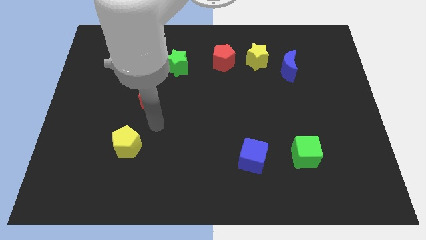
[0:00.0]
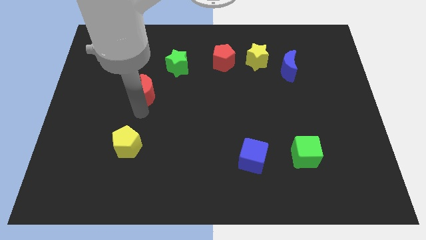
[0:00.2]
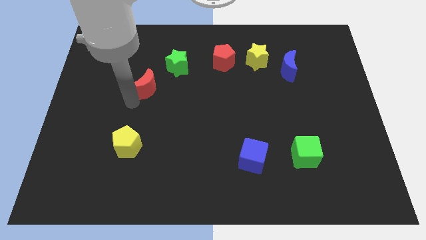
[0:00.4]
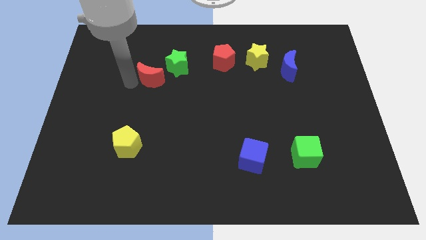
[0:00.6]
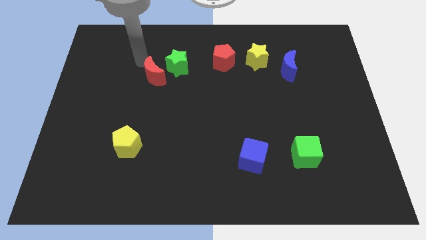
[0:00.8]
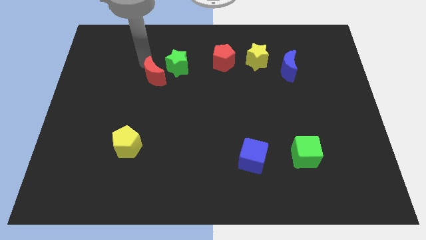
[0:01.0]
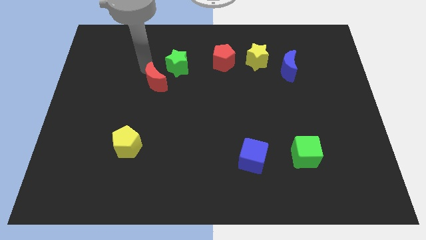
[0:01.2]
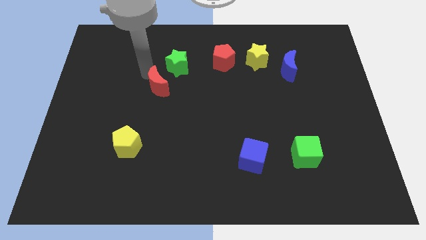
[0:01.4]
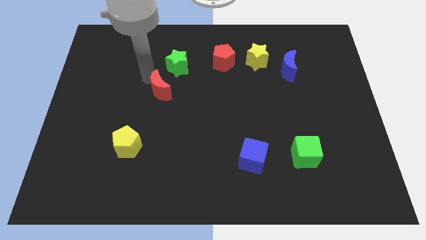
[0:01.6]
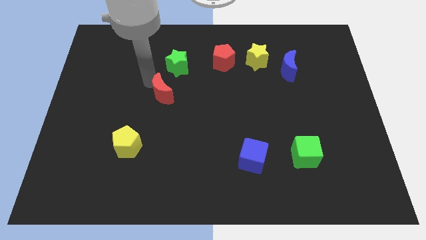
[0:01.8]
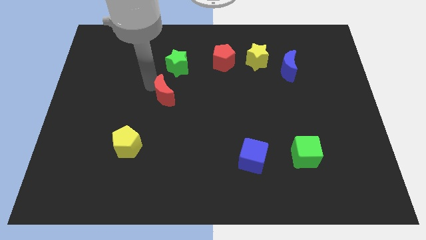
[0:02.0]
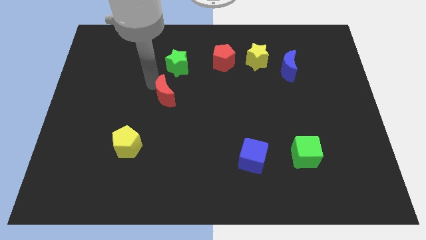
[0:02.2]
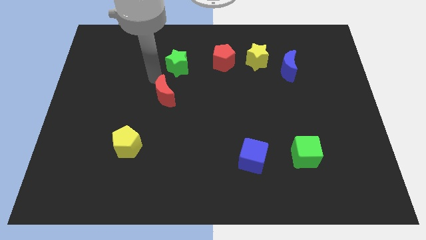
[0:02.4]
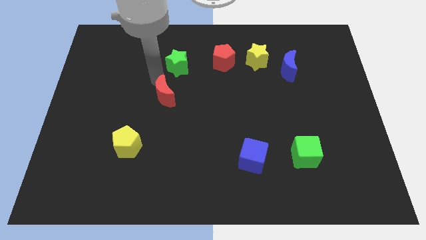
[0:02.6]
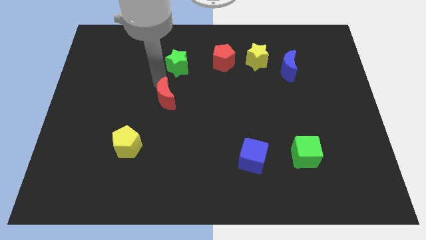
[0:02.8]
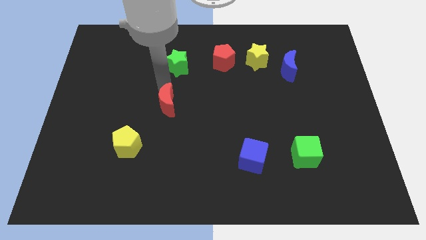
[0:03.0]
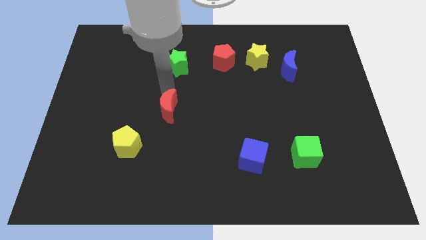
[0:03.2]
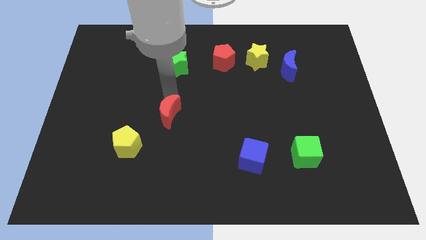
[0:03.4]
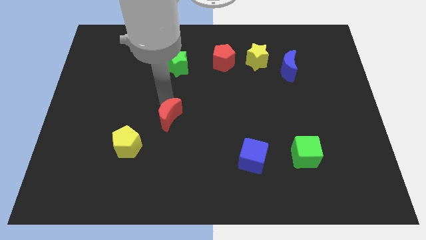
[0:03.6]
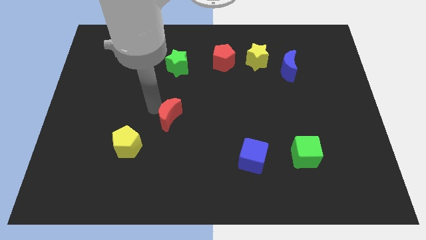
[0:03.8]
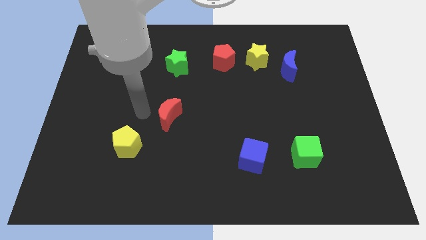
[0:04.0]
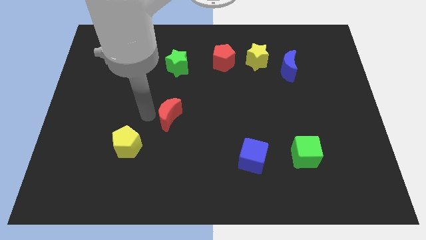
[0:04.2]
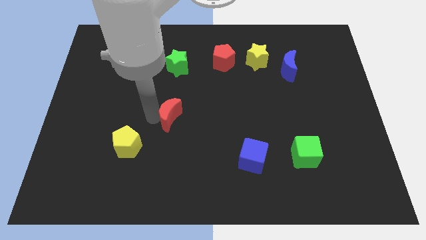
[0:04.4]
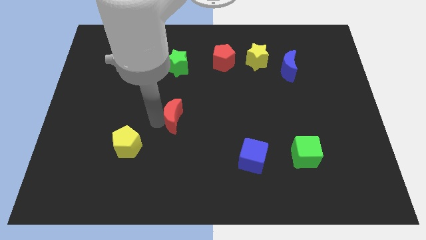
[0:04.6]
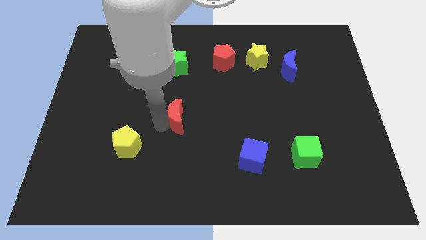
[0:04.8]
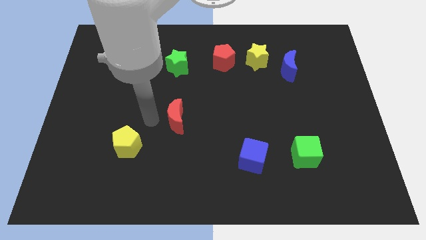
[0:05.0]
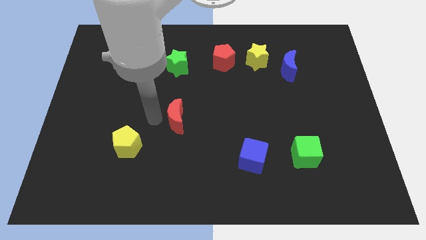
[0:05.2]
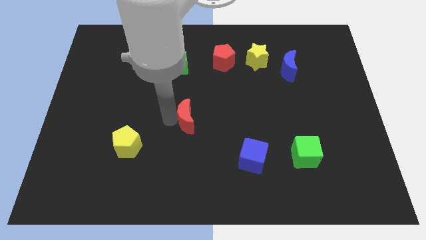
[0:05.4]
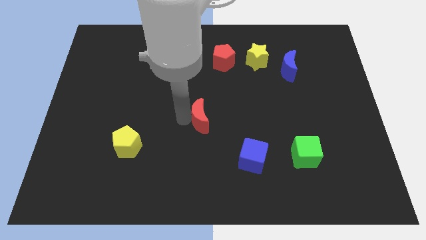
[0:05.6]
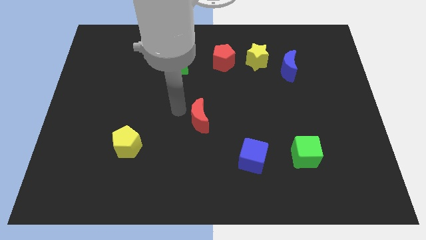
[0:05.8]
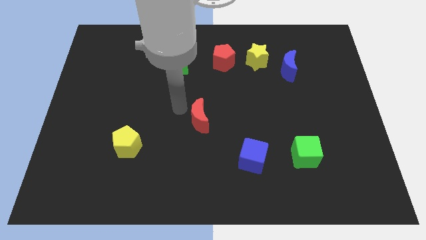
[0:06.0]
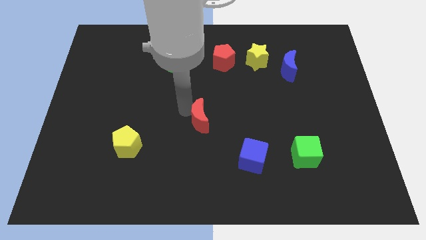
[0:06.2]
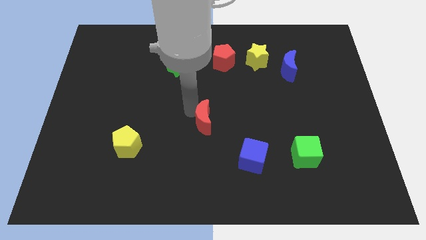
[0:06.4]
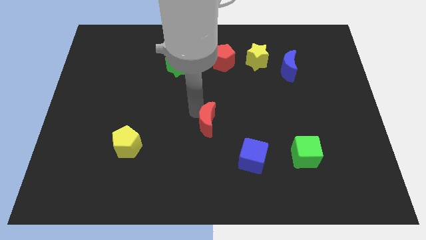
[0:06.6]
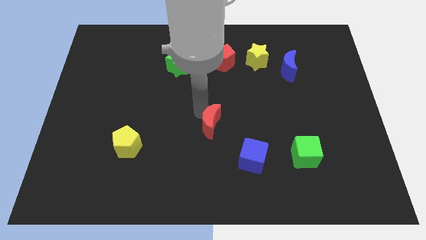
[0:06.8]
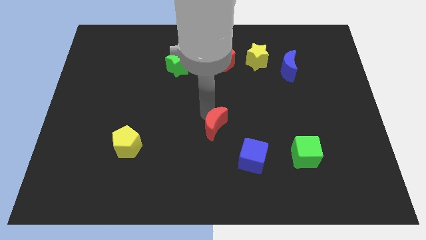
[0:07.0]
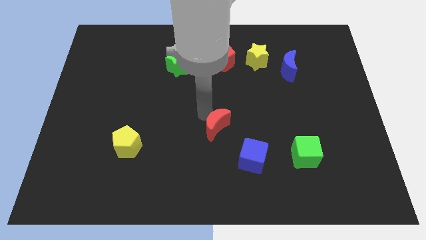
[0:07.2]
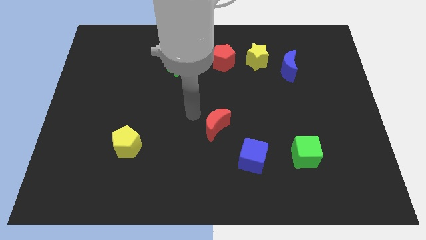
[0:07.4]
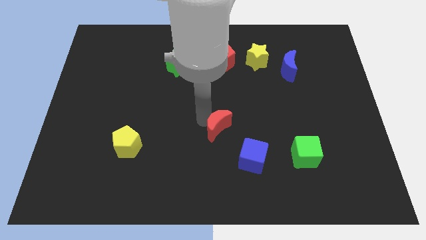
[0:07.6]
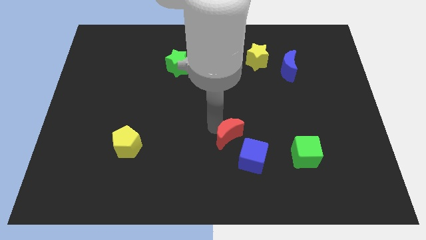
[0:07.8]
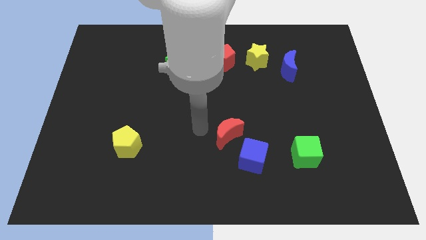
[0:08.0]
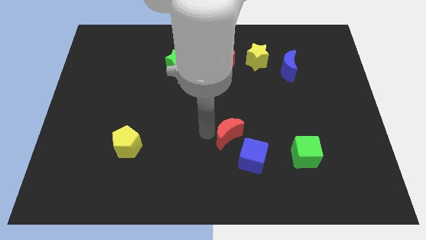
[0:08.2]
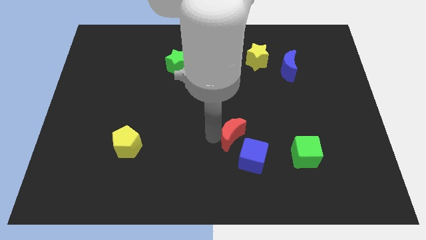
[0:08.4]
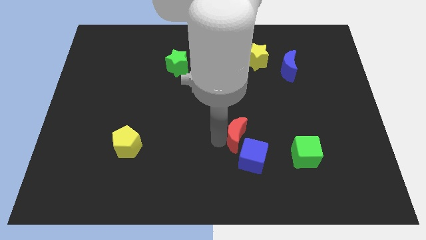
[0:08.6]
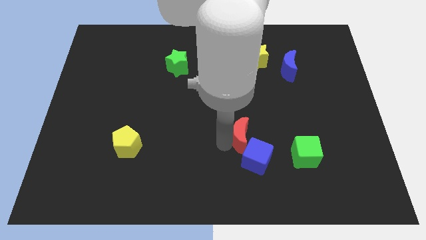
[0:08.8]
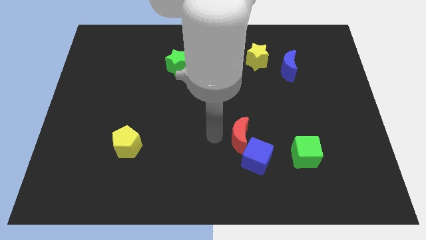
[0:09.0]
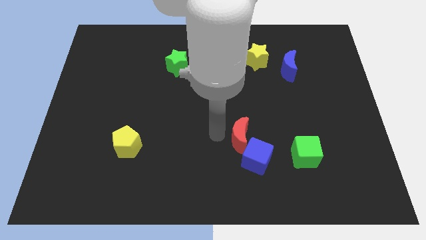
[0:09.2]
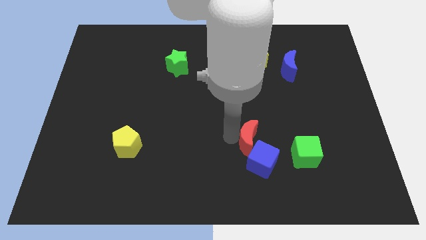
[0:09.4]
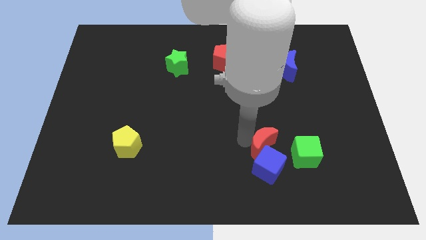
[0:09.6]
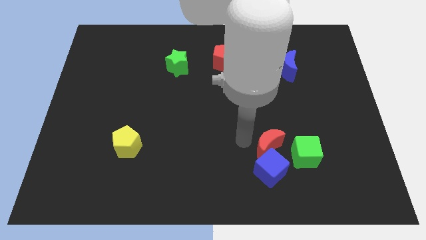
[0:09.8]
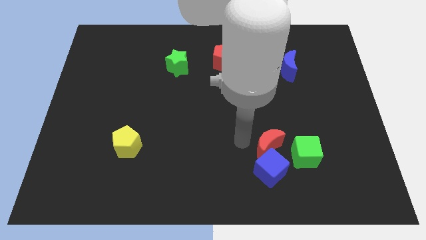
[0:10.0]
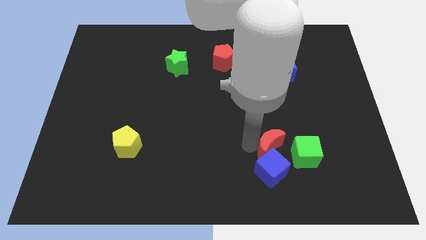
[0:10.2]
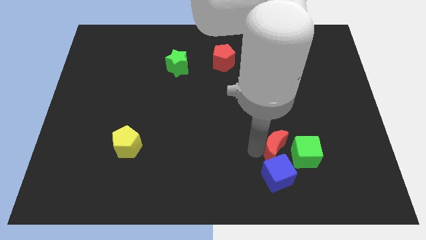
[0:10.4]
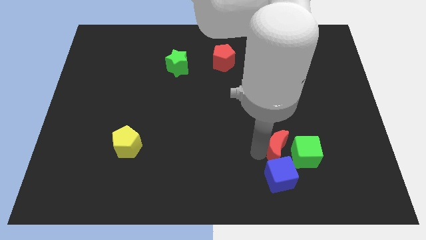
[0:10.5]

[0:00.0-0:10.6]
move the red moon close to the green cube

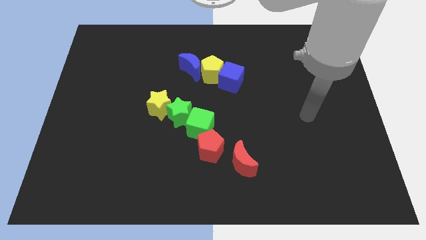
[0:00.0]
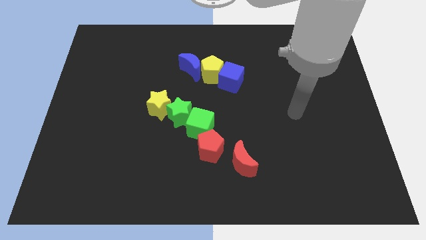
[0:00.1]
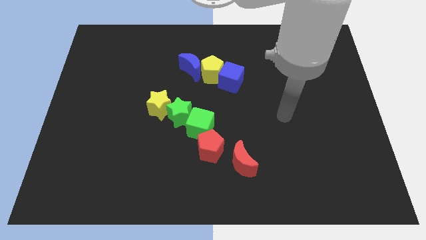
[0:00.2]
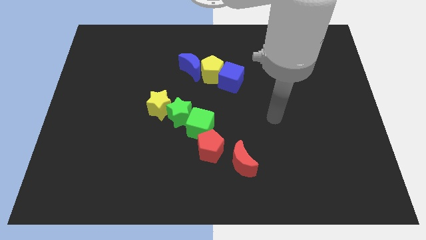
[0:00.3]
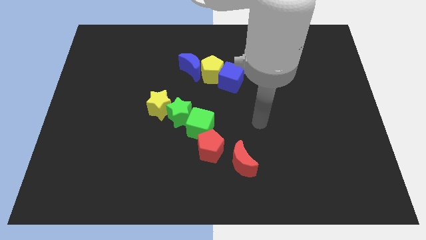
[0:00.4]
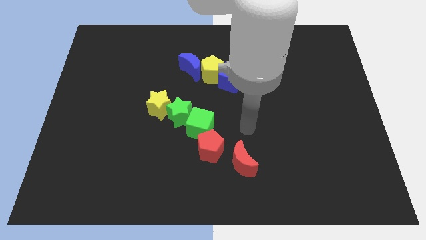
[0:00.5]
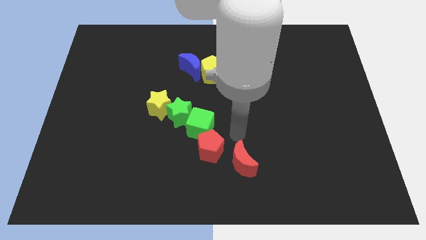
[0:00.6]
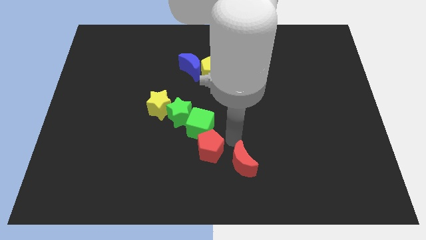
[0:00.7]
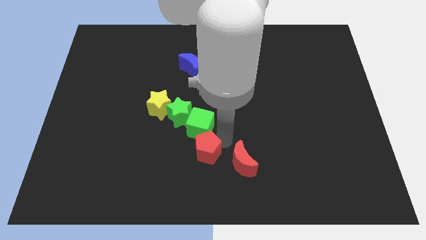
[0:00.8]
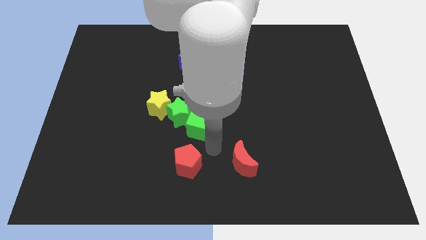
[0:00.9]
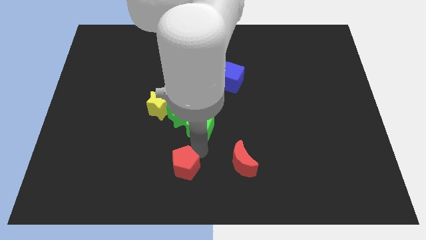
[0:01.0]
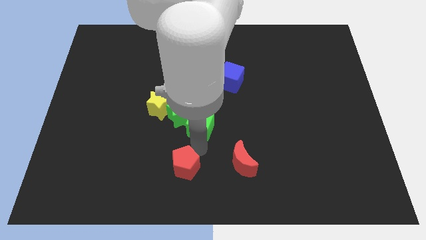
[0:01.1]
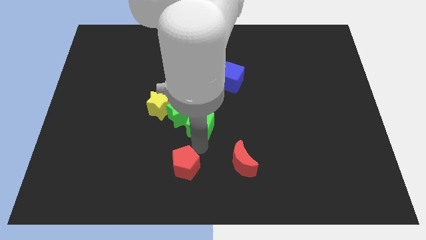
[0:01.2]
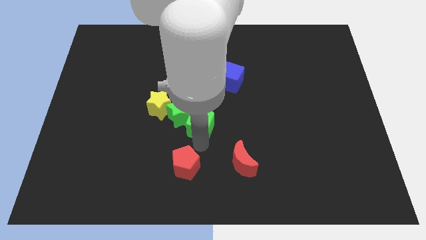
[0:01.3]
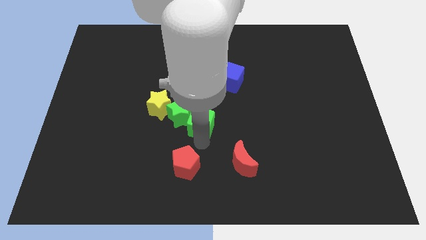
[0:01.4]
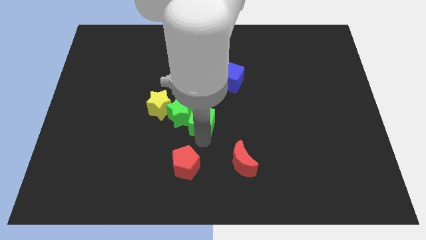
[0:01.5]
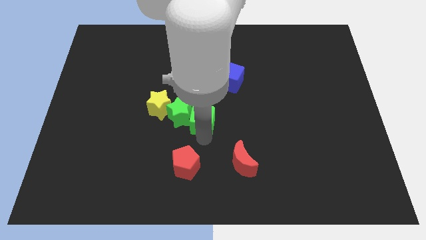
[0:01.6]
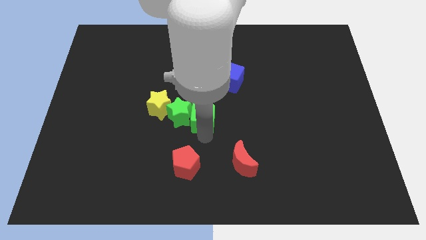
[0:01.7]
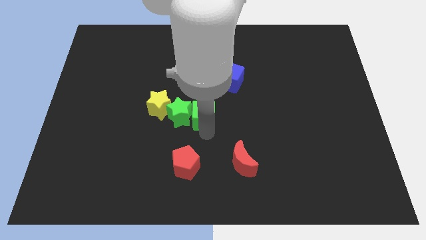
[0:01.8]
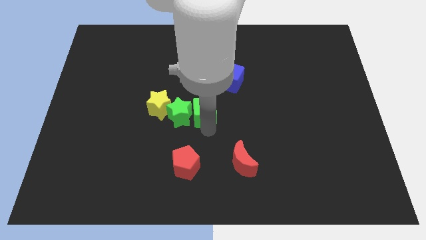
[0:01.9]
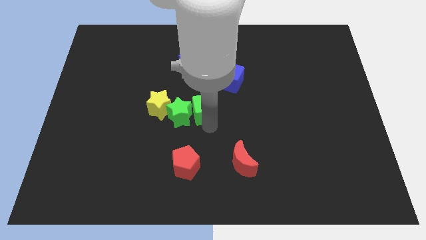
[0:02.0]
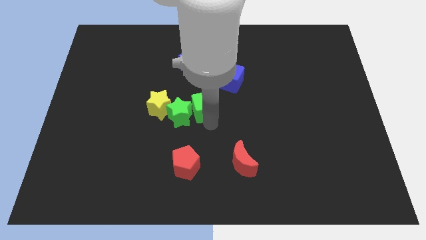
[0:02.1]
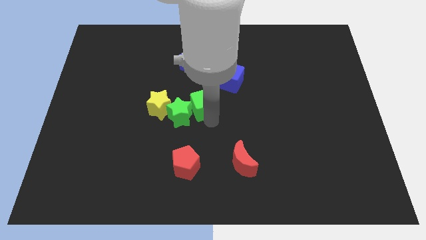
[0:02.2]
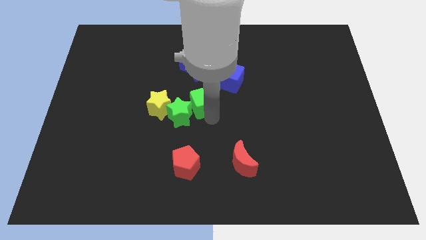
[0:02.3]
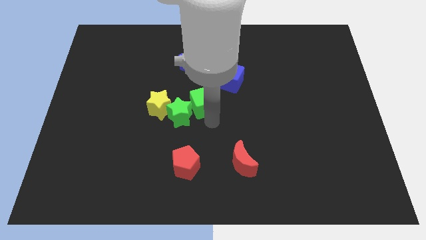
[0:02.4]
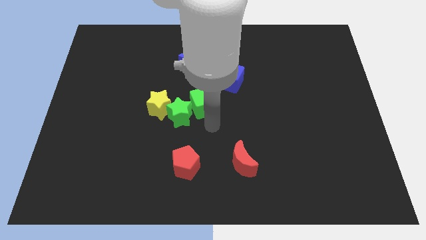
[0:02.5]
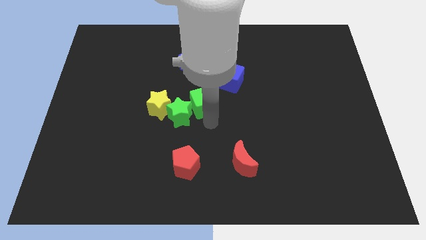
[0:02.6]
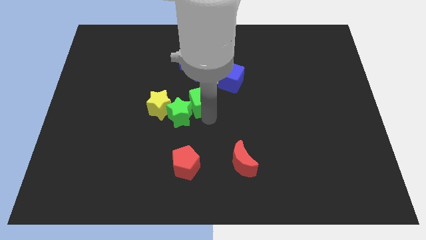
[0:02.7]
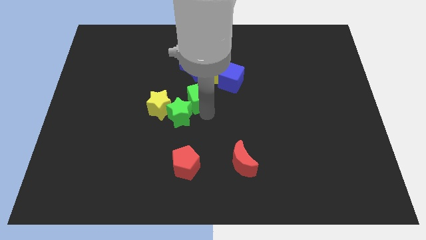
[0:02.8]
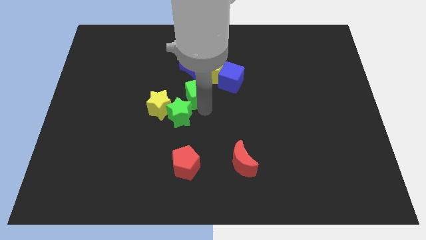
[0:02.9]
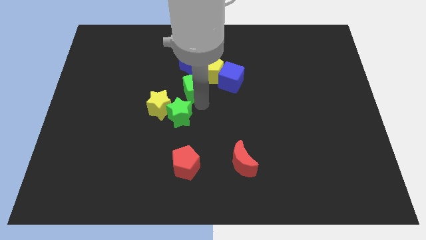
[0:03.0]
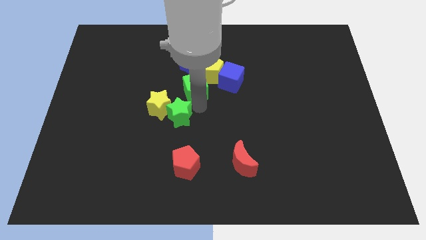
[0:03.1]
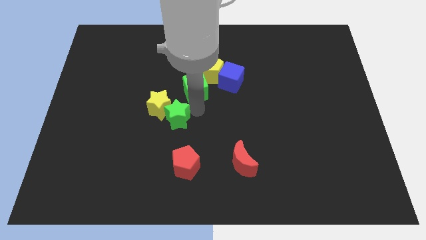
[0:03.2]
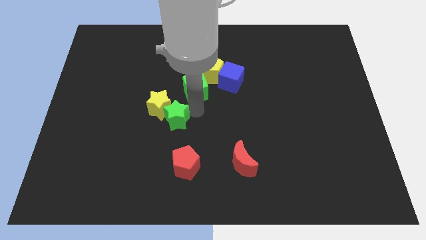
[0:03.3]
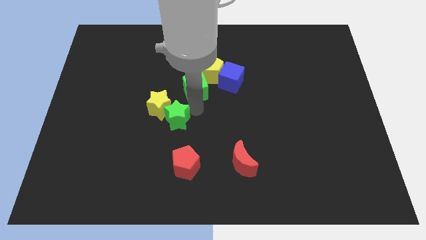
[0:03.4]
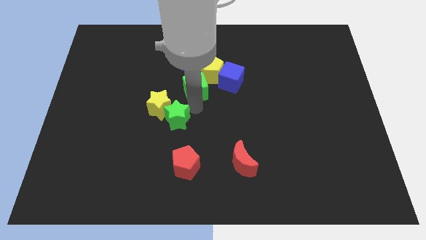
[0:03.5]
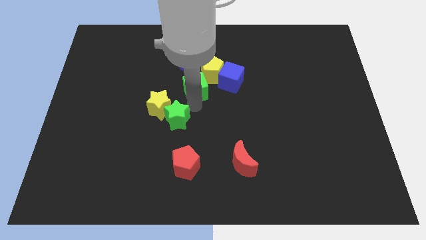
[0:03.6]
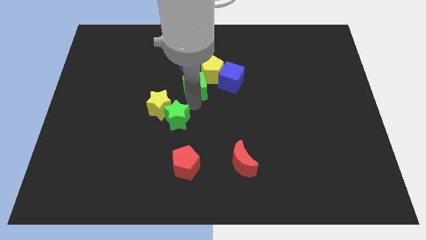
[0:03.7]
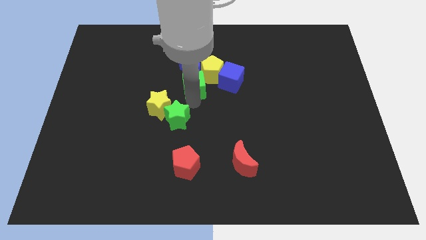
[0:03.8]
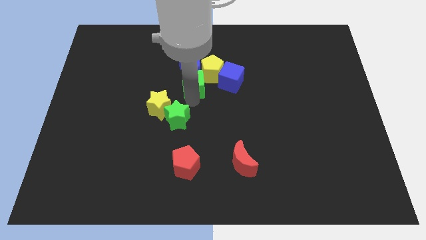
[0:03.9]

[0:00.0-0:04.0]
move the green cube to the blue moon
